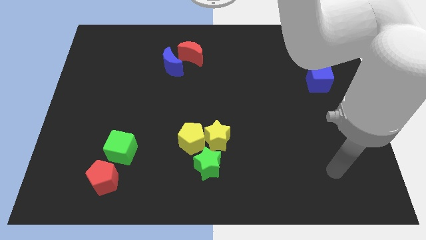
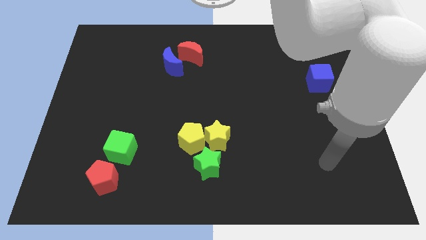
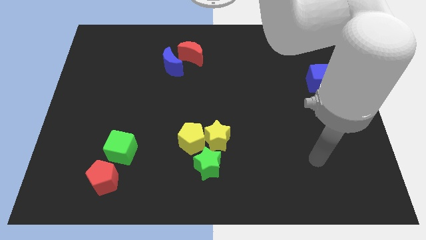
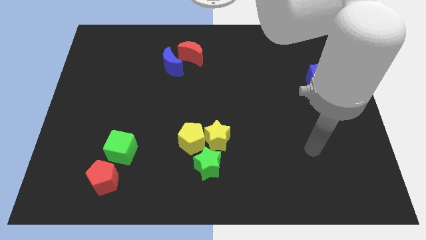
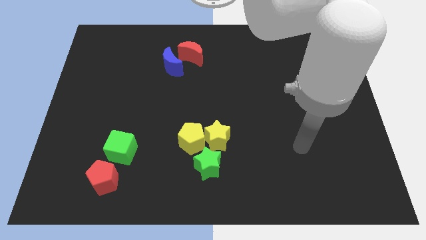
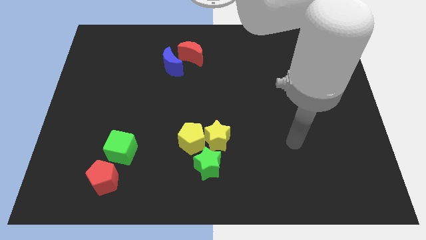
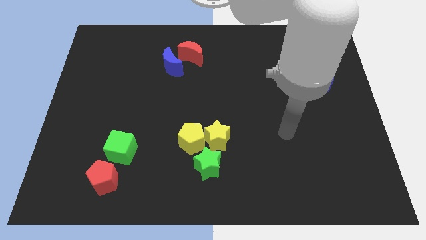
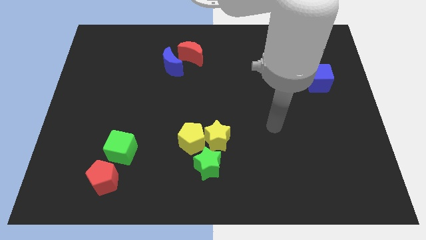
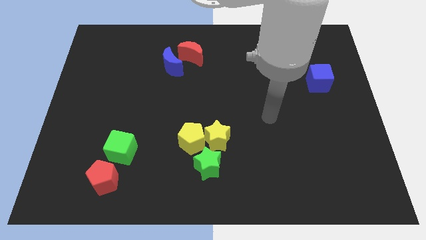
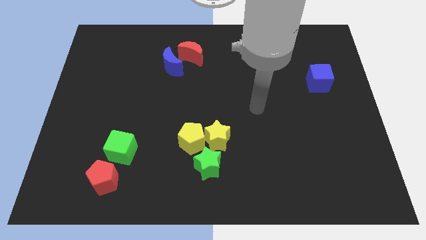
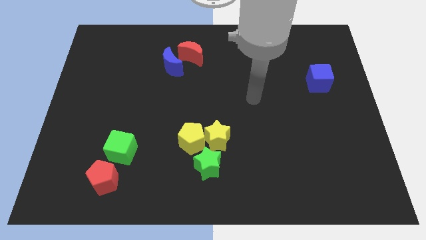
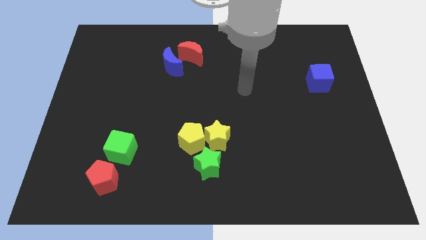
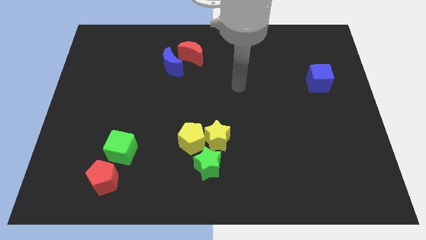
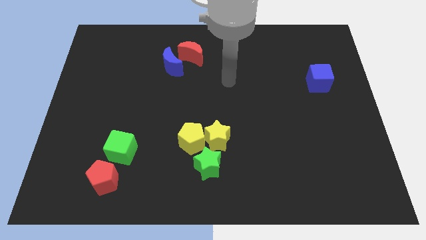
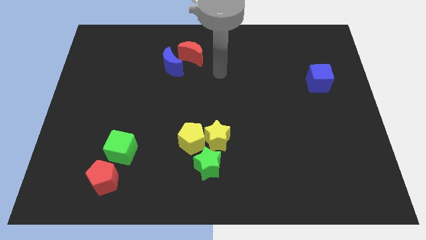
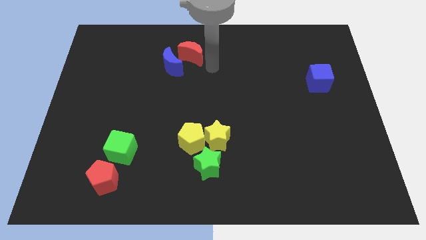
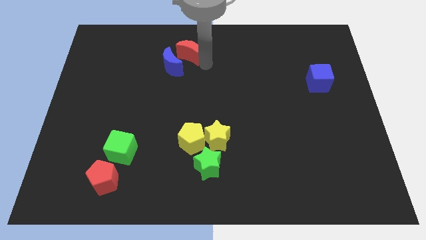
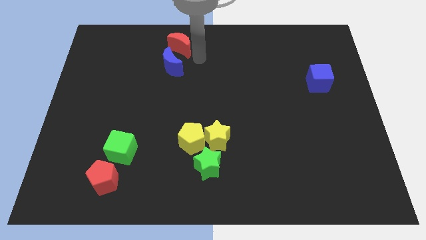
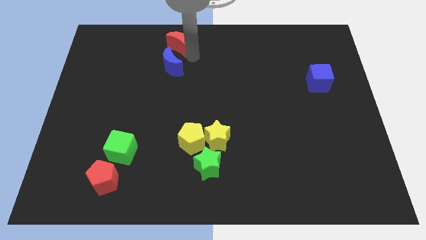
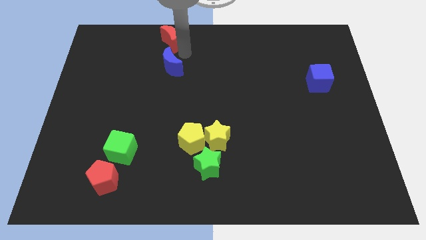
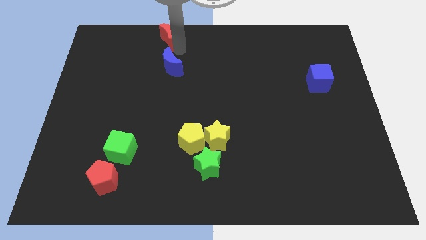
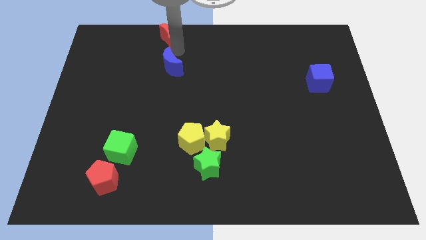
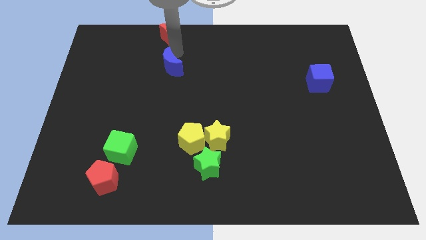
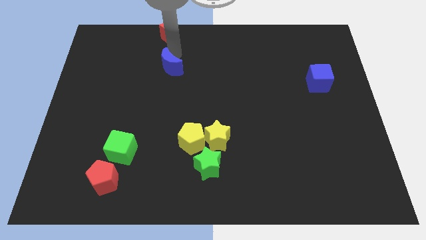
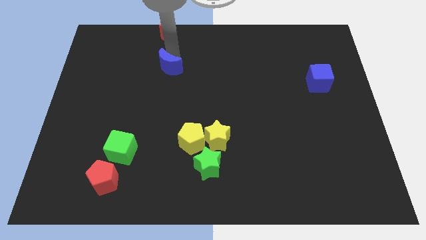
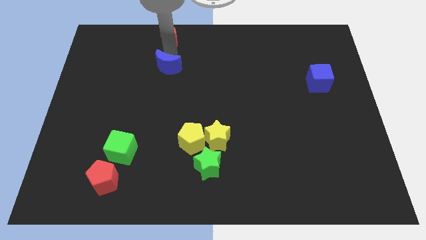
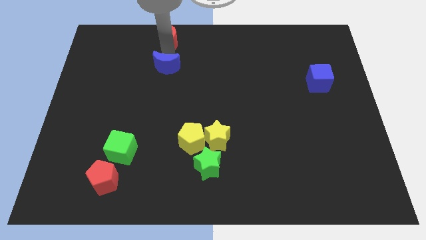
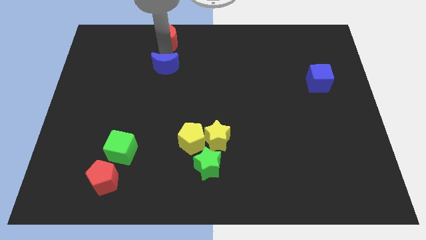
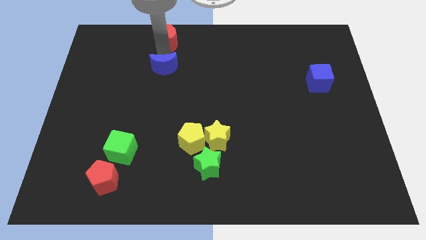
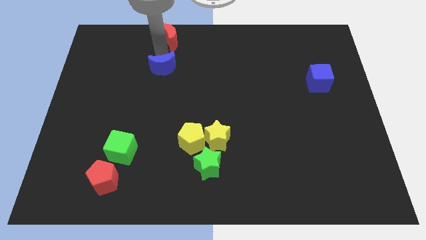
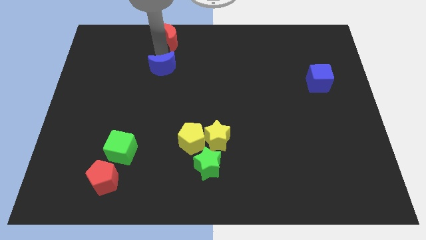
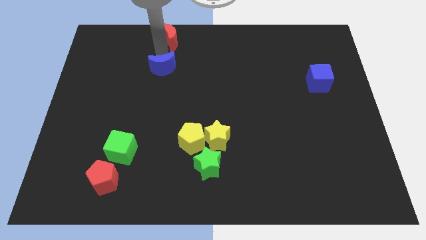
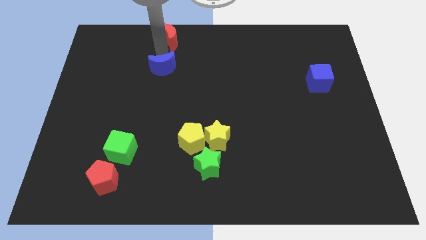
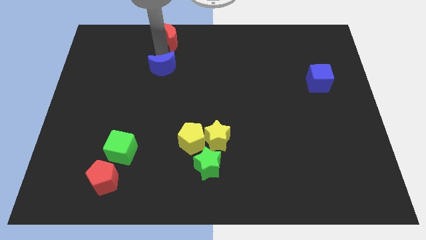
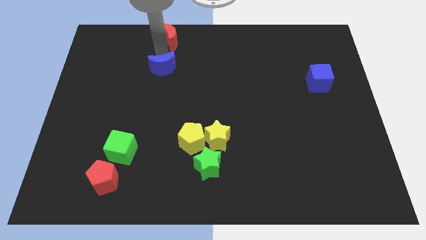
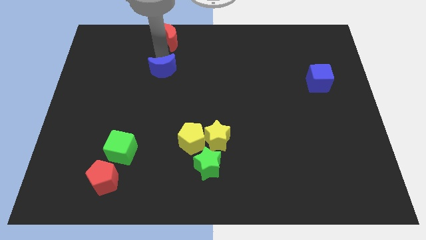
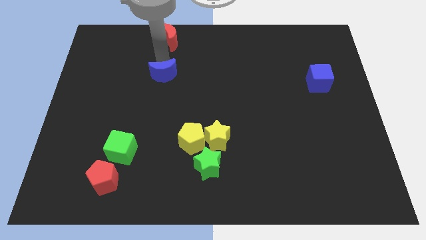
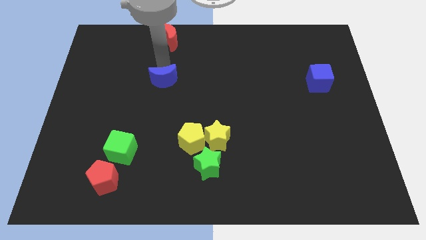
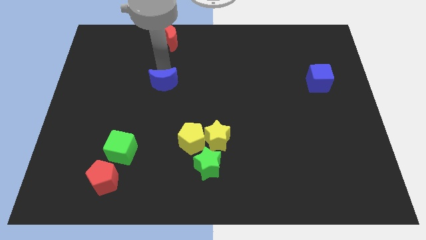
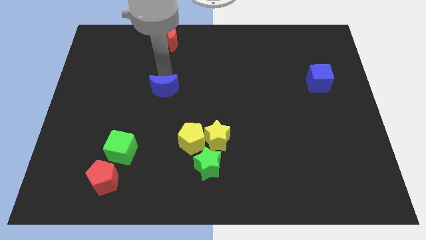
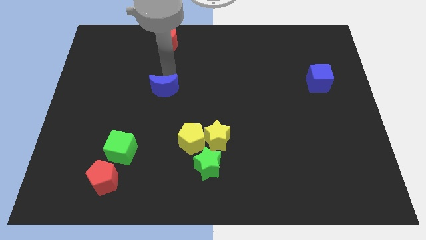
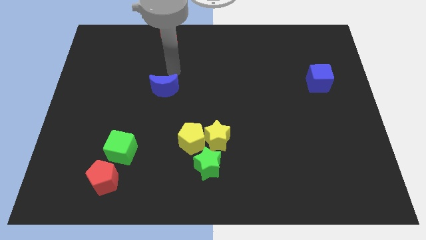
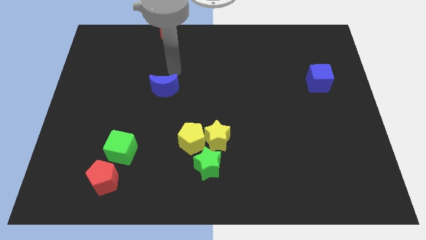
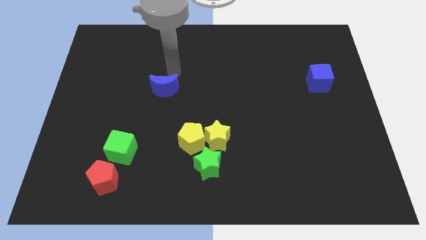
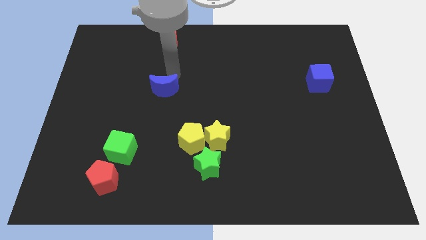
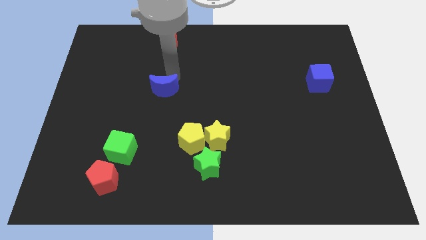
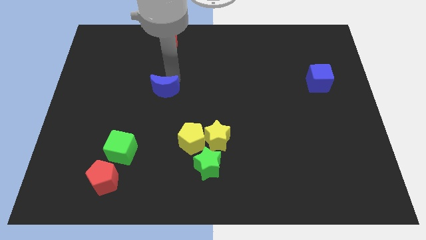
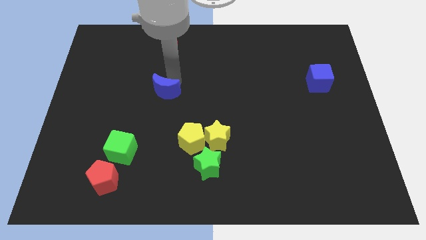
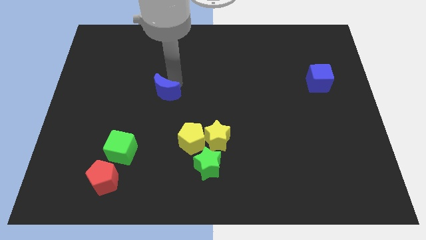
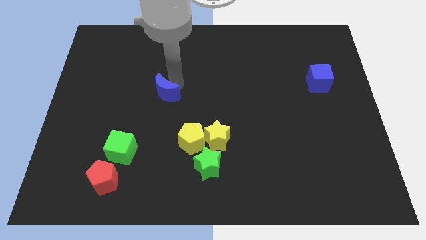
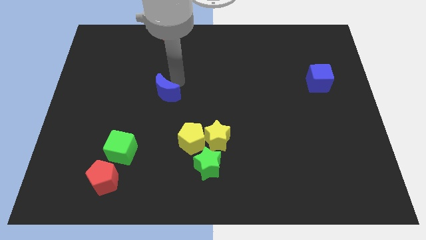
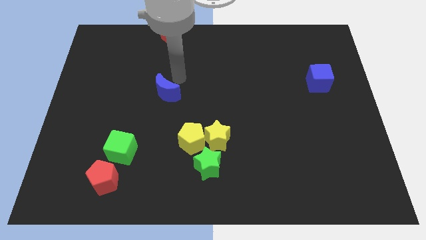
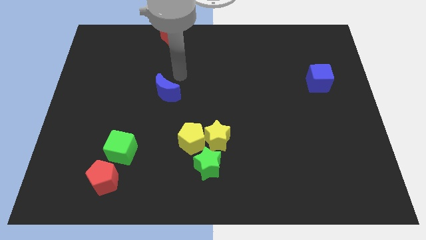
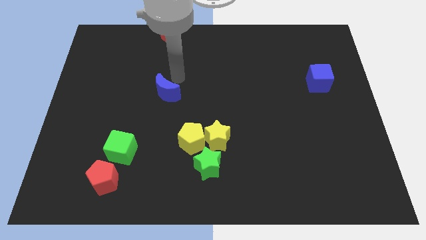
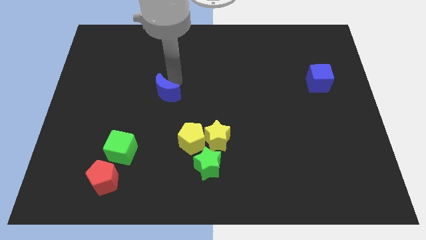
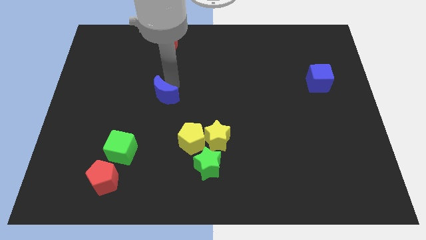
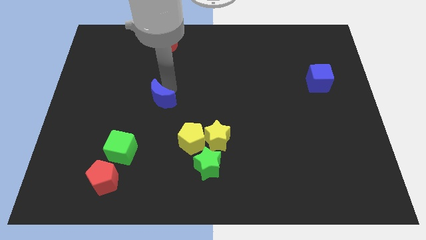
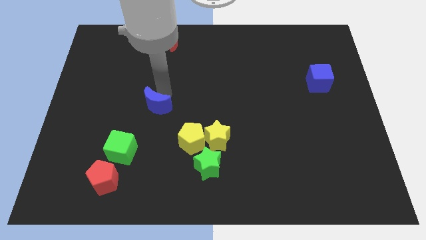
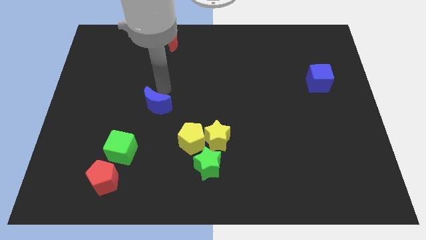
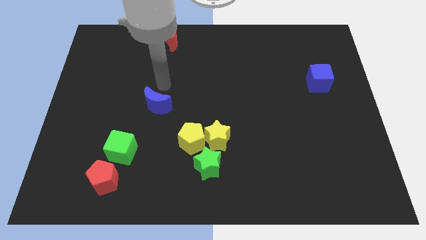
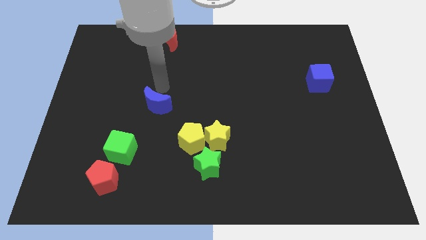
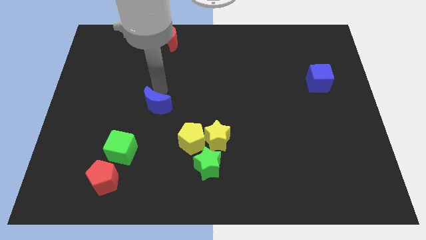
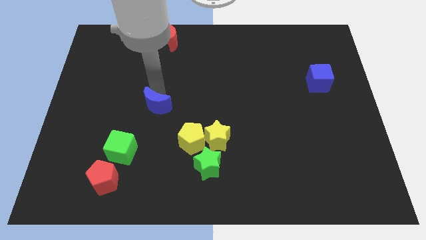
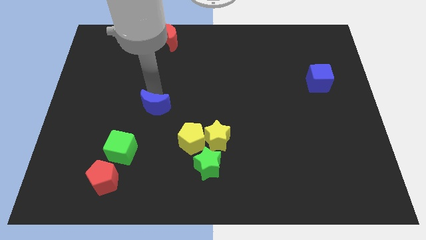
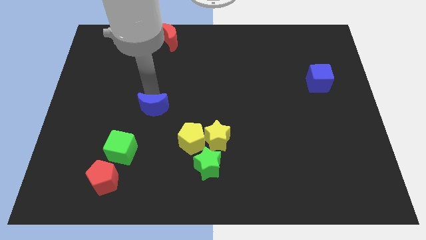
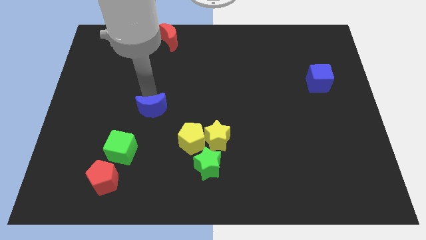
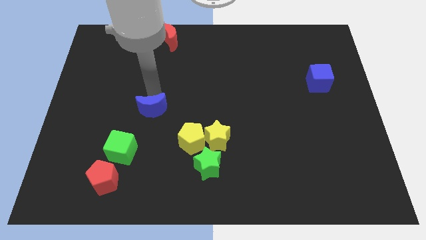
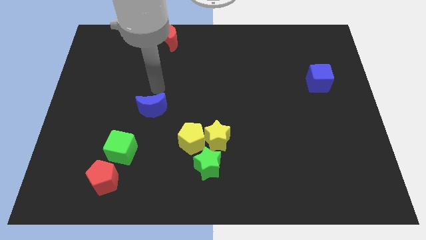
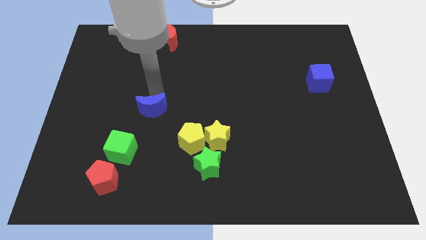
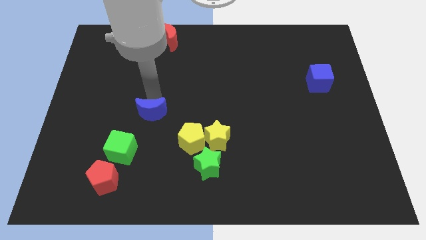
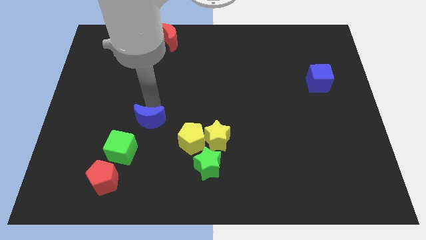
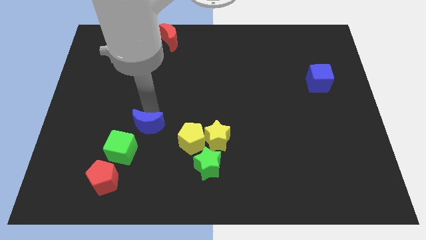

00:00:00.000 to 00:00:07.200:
slide the blue moon just left of the yellow pentagon
